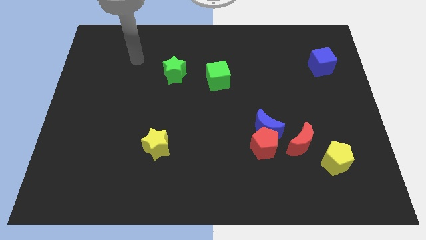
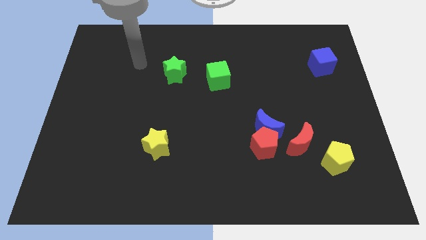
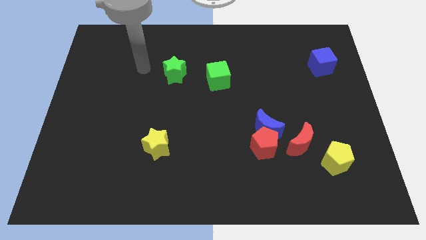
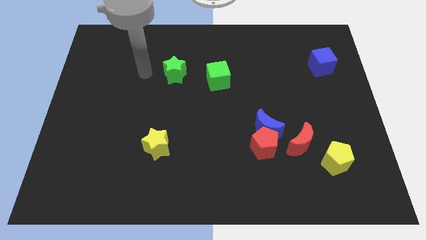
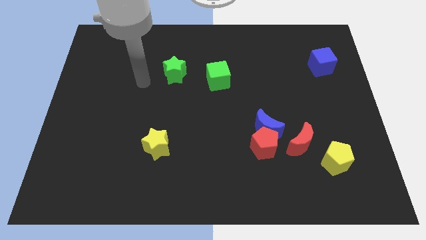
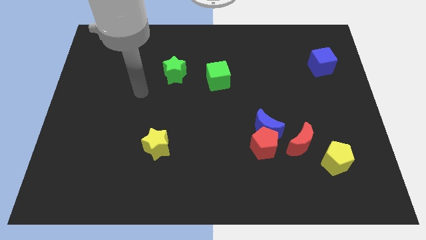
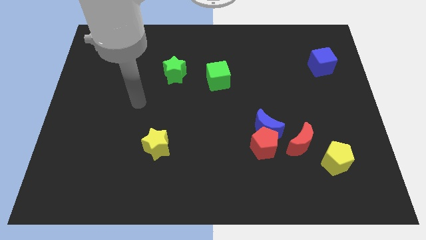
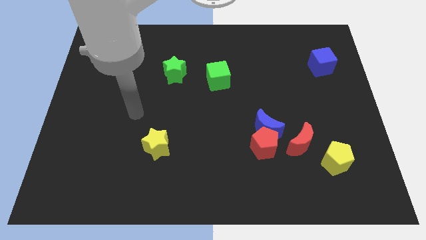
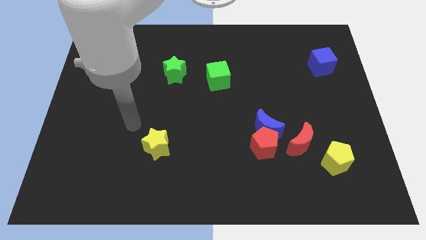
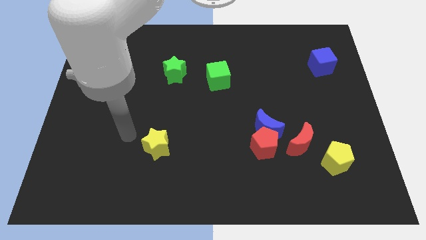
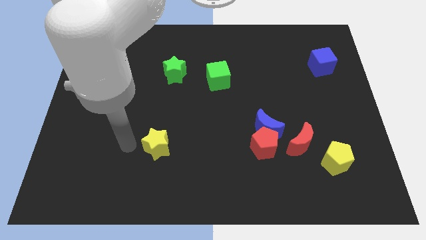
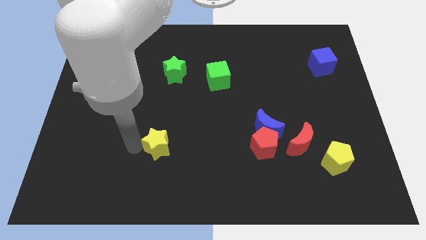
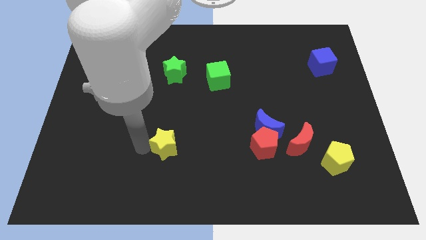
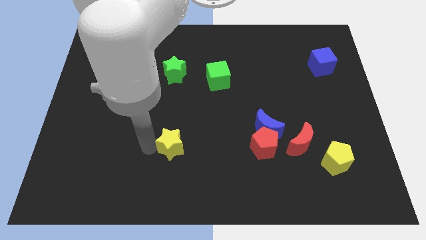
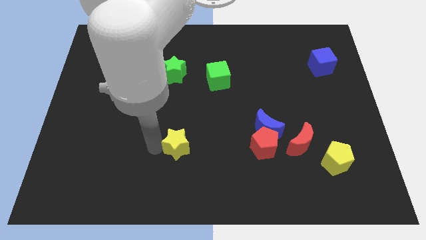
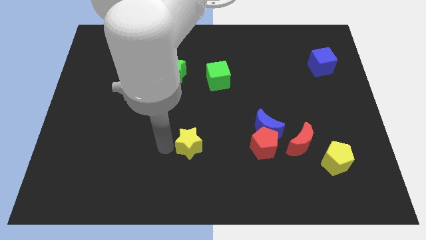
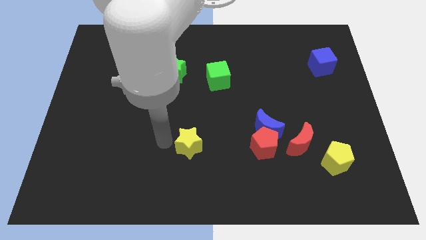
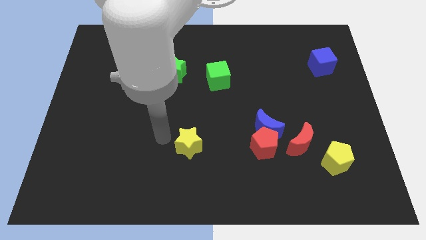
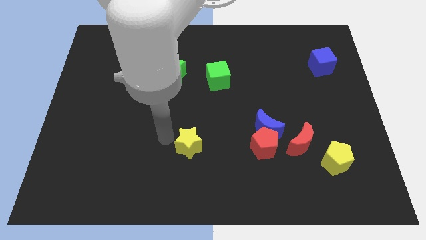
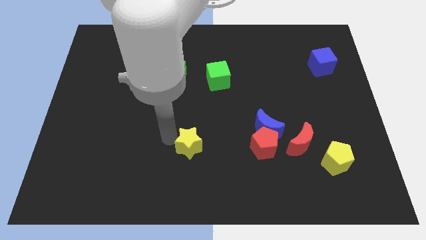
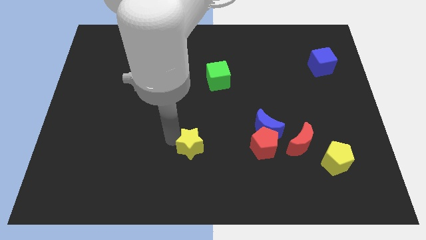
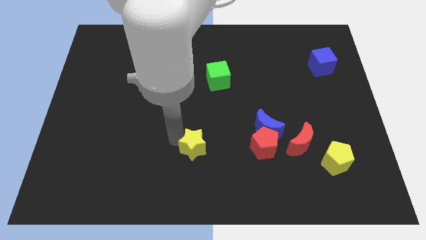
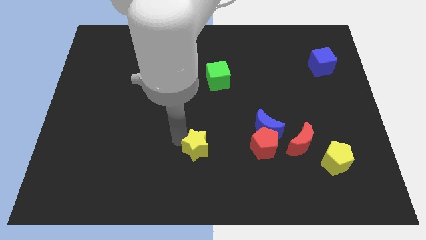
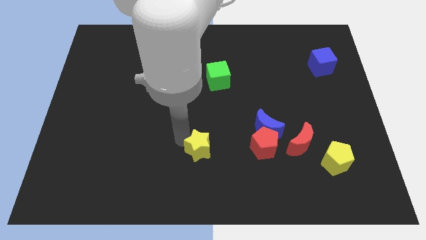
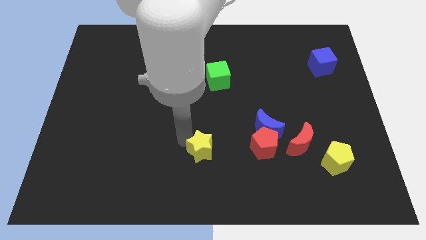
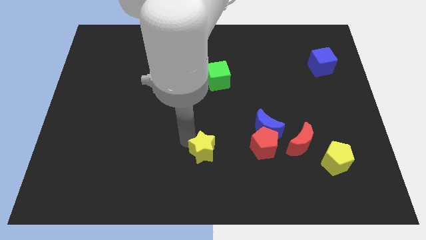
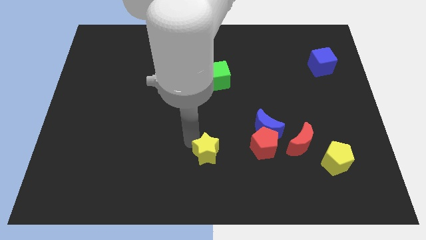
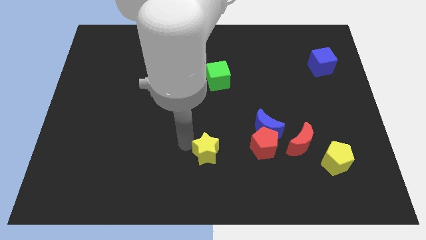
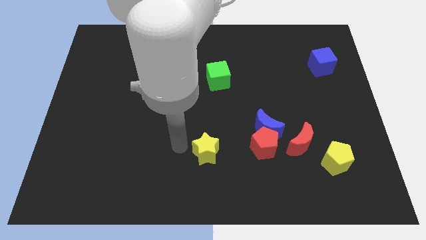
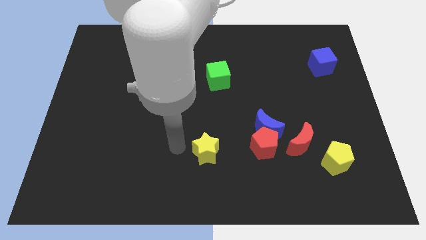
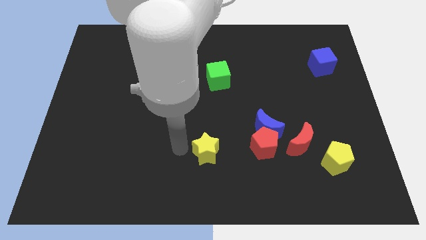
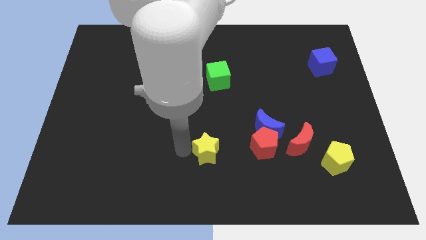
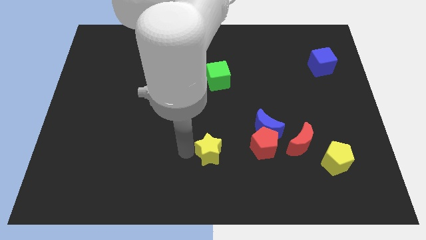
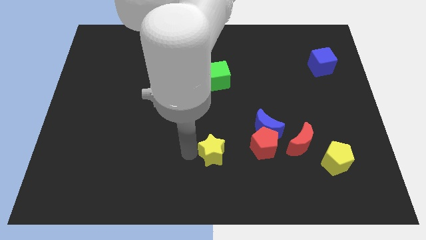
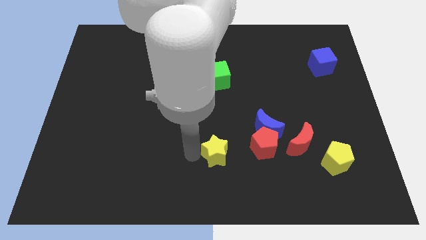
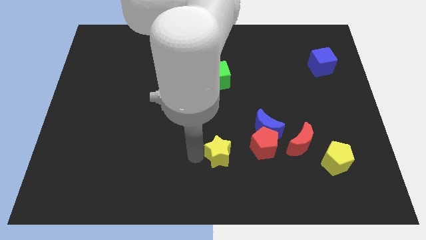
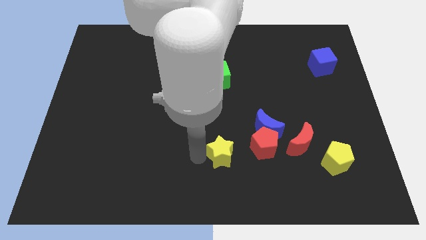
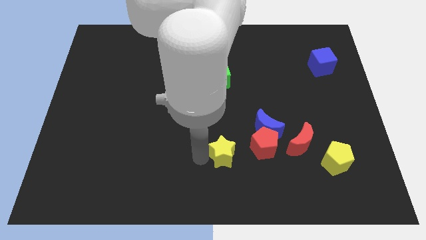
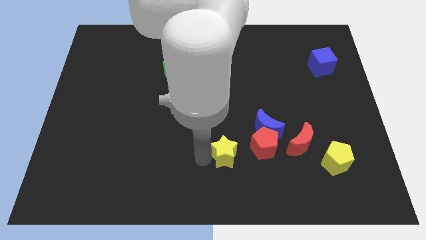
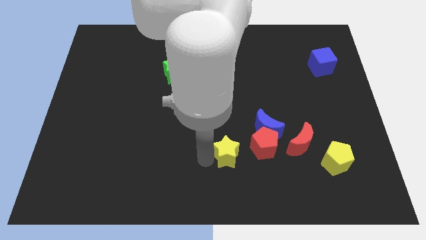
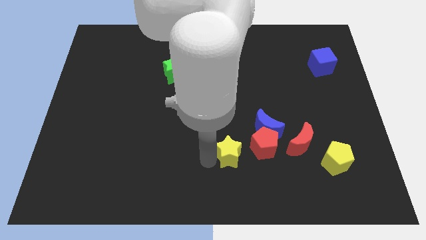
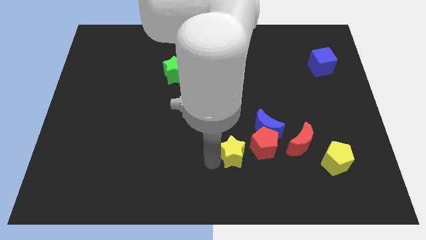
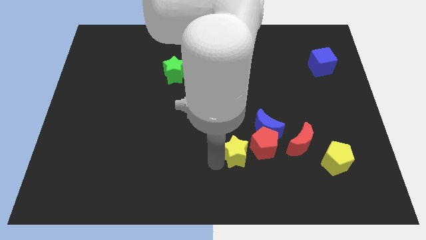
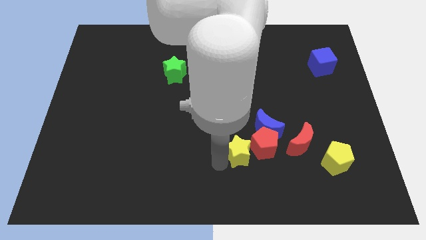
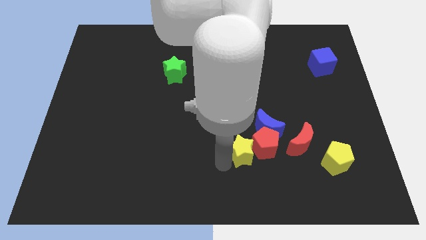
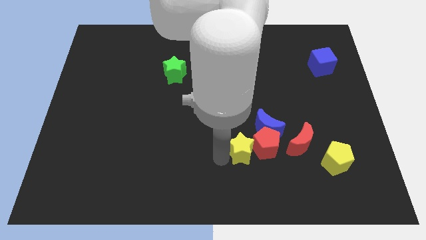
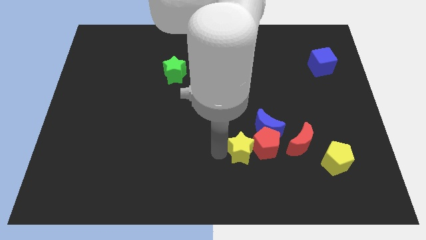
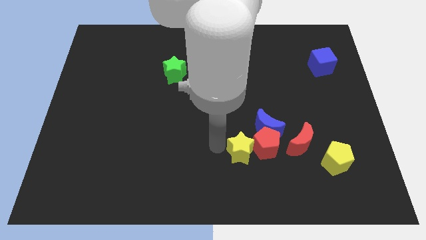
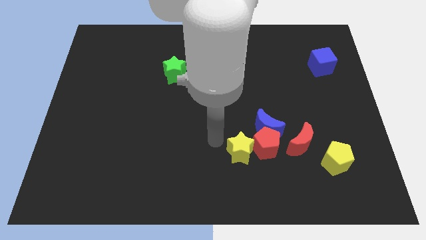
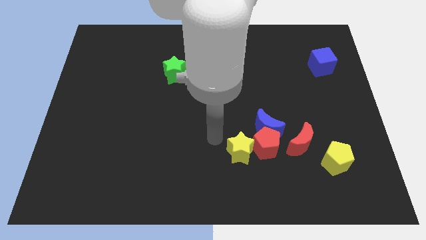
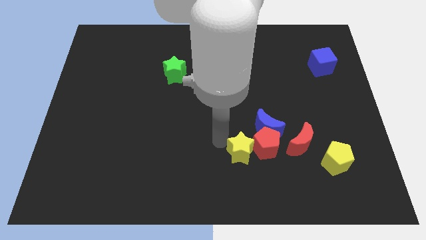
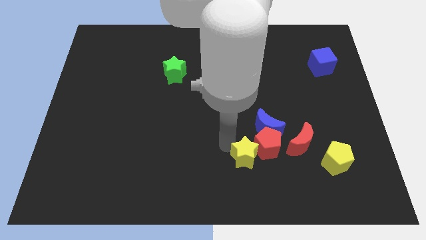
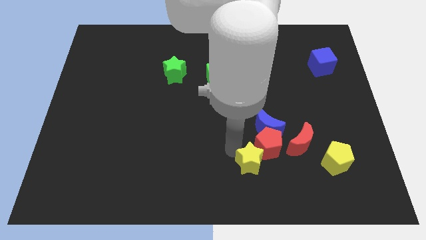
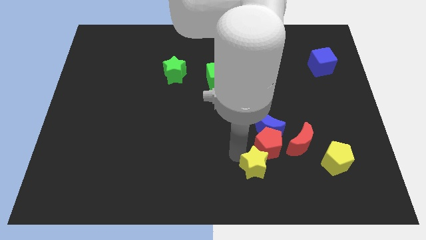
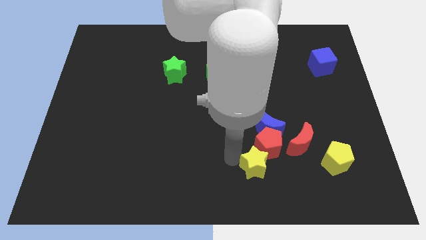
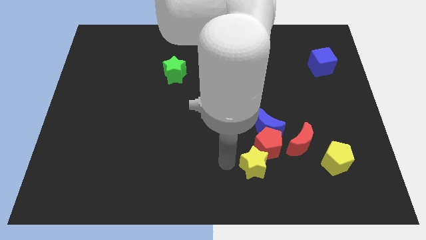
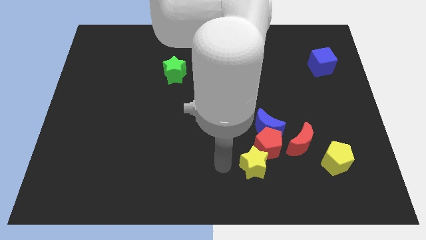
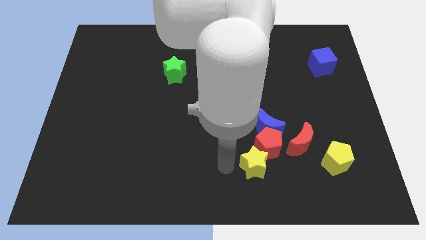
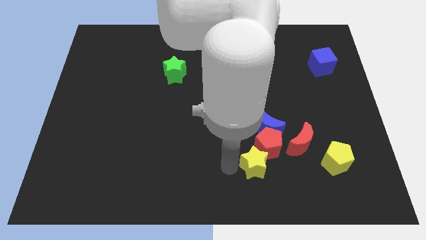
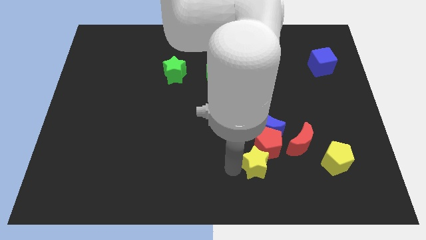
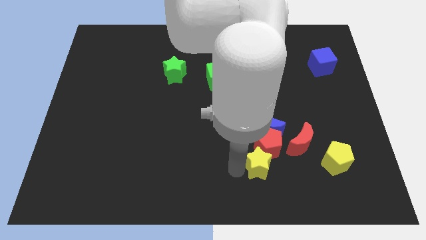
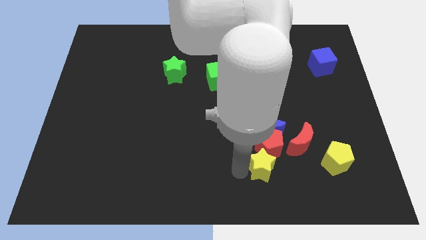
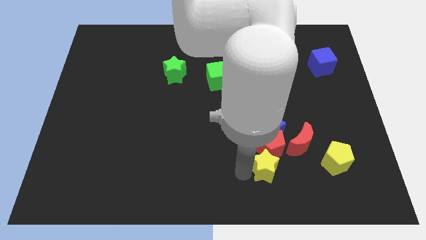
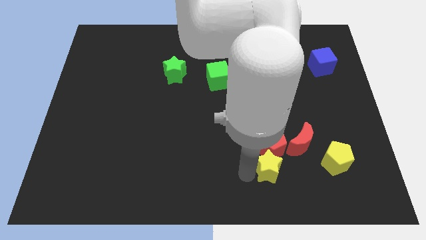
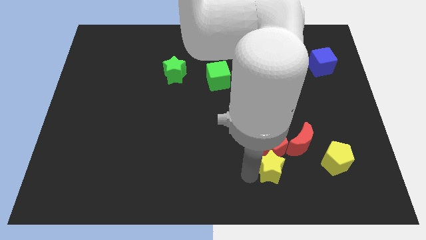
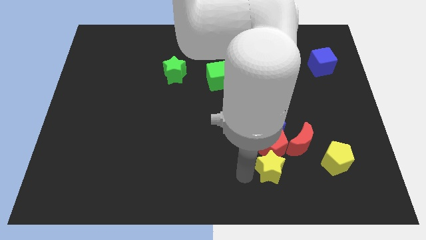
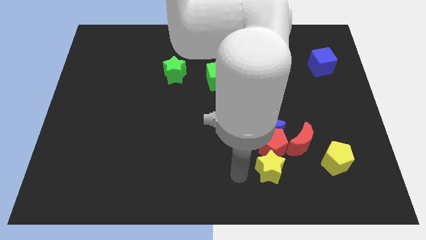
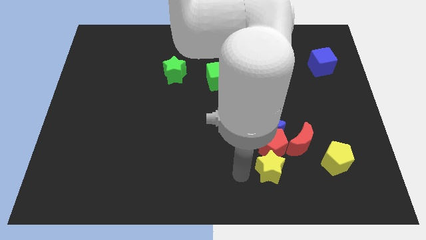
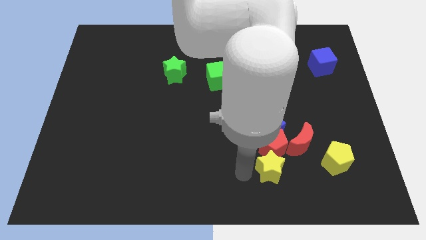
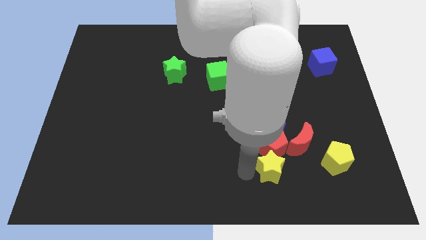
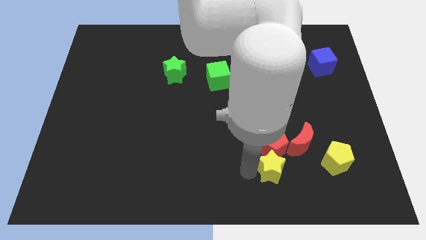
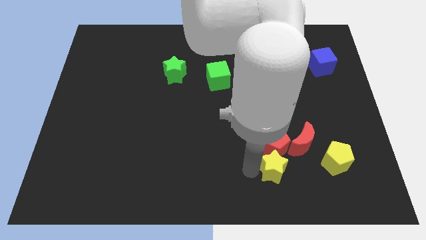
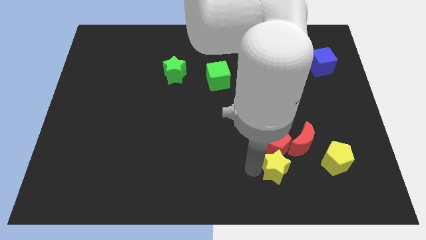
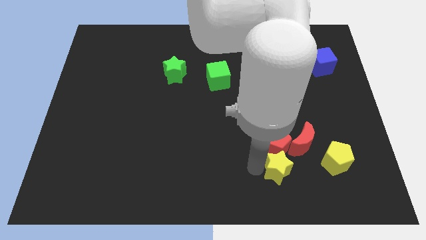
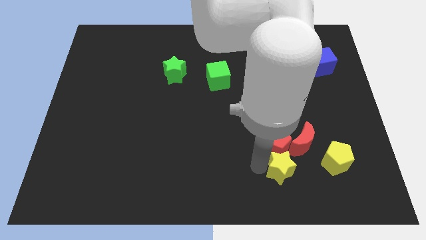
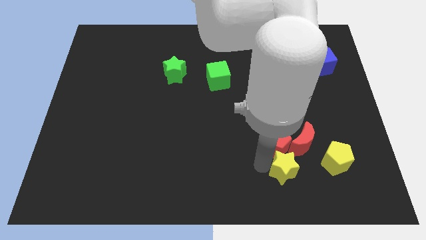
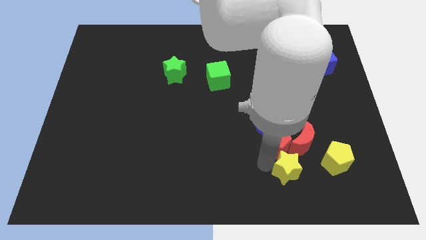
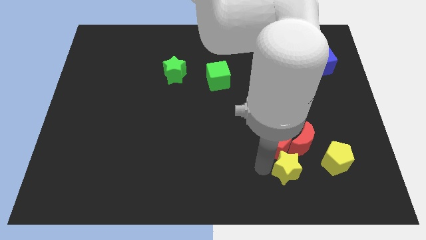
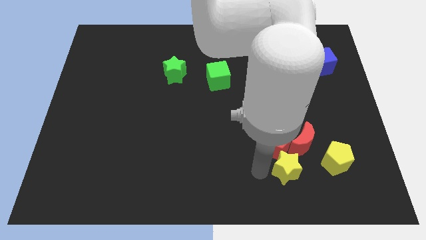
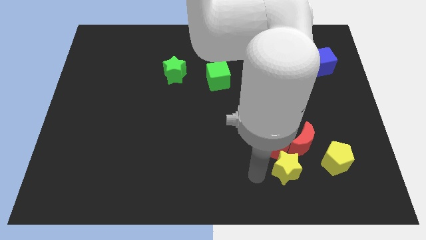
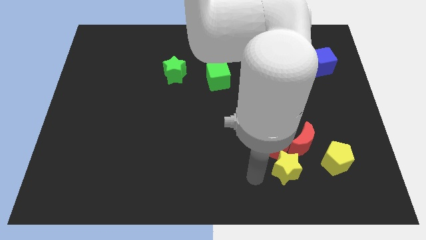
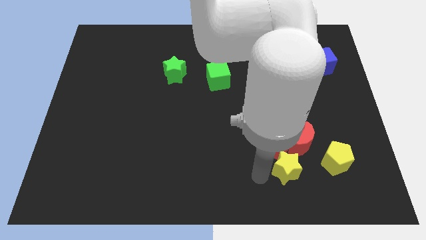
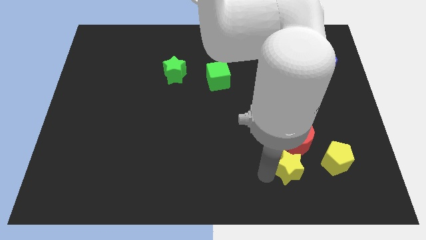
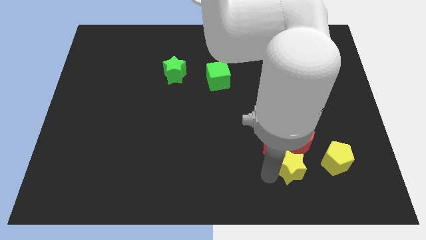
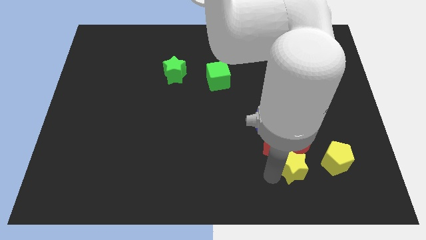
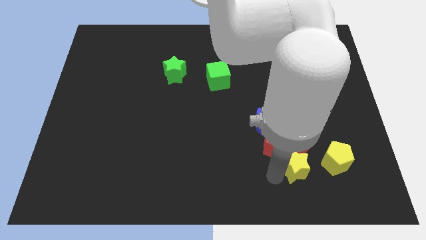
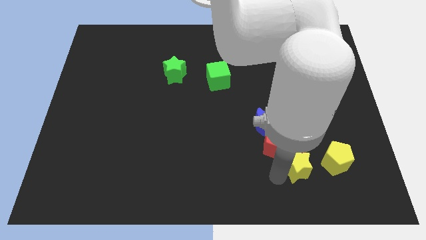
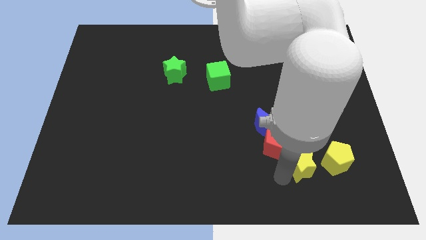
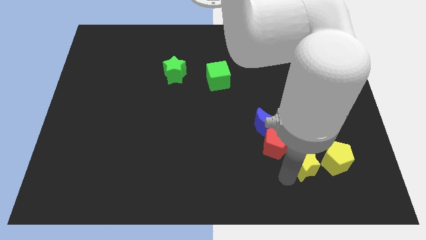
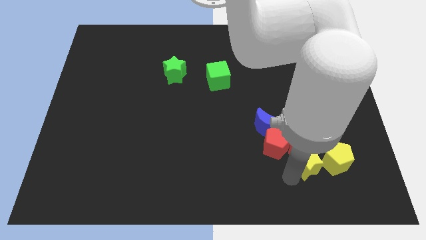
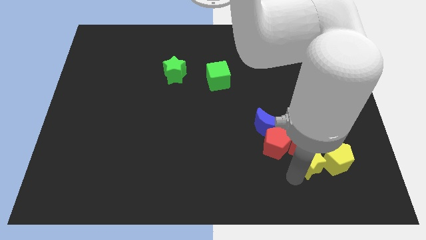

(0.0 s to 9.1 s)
put the yellow star towards the yellow pentagon
